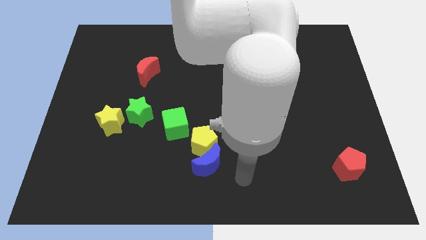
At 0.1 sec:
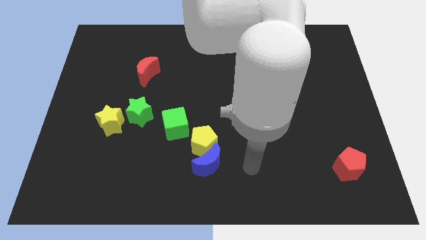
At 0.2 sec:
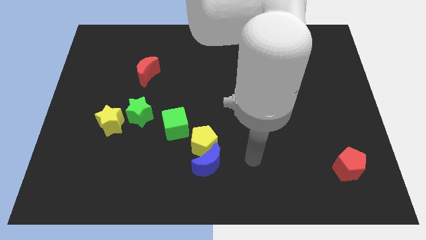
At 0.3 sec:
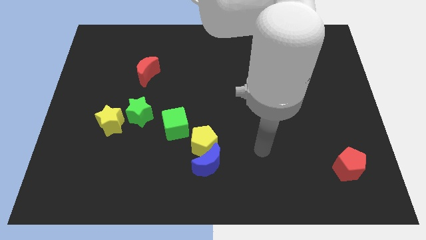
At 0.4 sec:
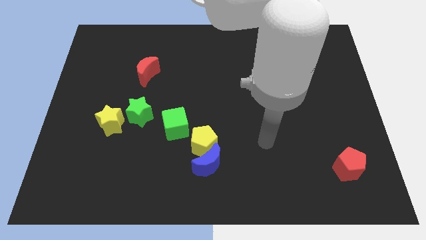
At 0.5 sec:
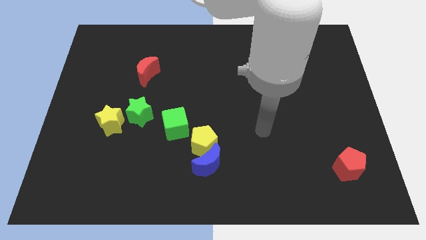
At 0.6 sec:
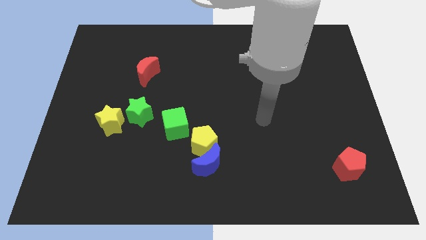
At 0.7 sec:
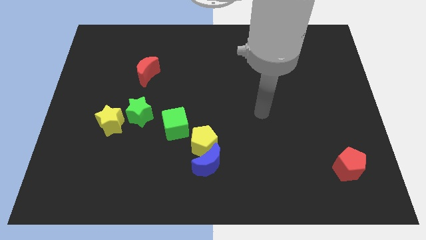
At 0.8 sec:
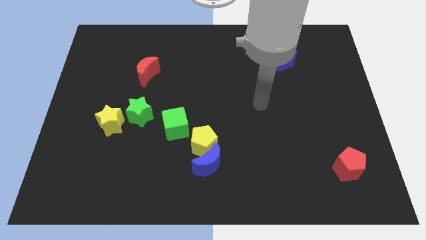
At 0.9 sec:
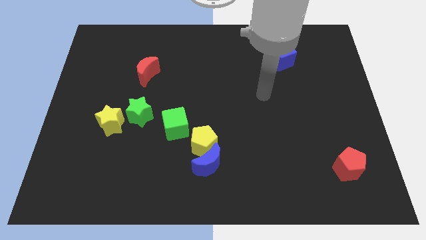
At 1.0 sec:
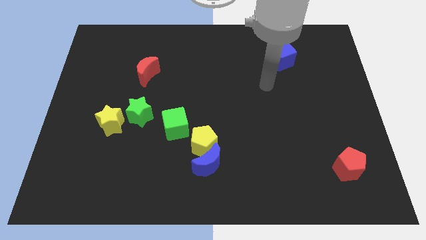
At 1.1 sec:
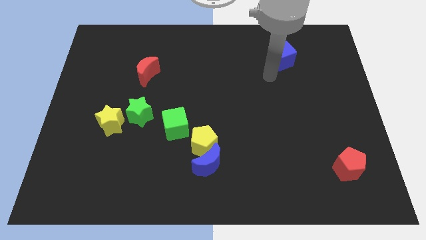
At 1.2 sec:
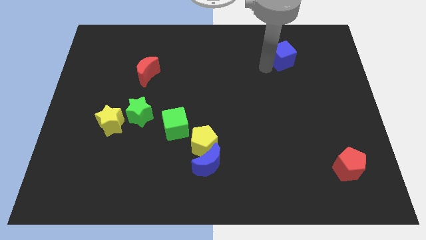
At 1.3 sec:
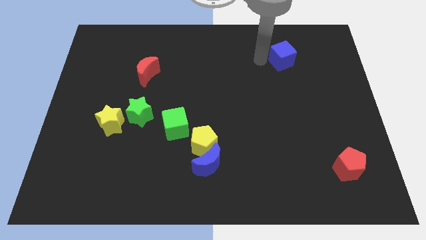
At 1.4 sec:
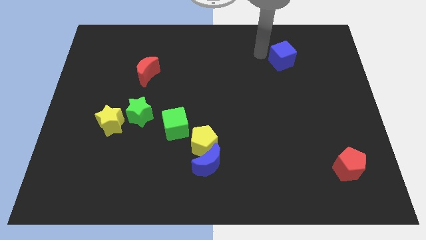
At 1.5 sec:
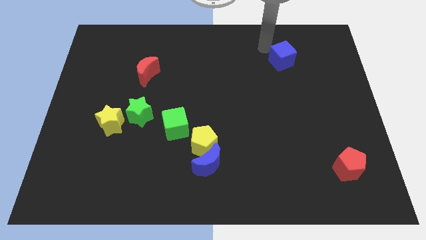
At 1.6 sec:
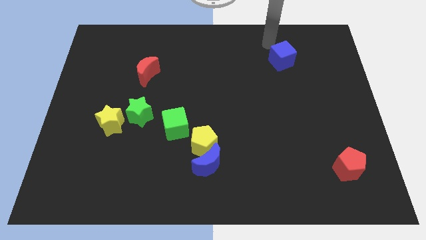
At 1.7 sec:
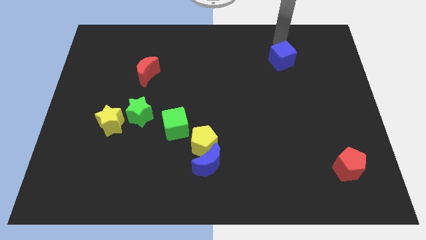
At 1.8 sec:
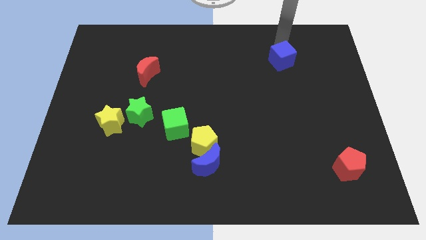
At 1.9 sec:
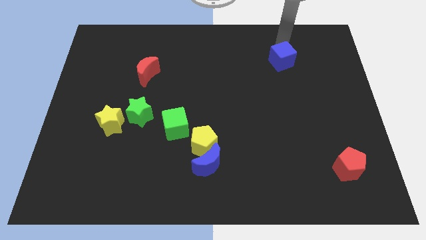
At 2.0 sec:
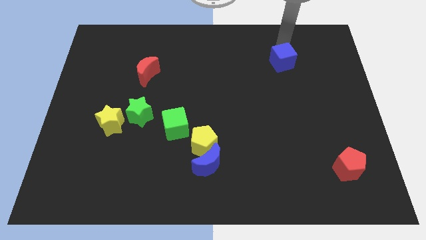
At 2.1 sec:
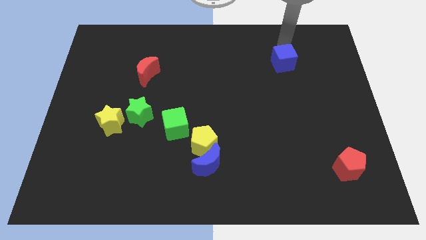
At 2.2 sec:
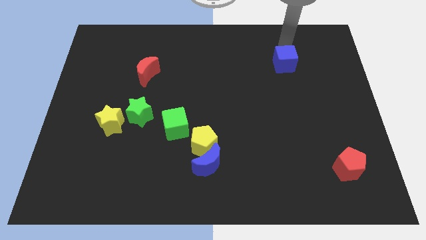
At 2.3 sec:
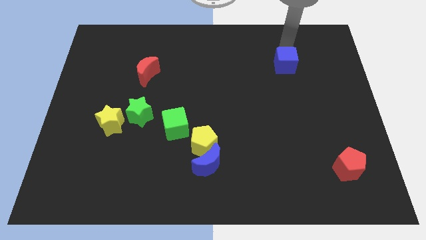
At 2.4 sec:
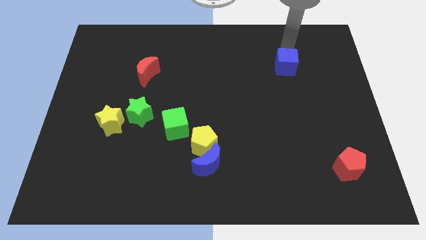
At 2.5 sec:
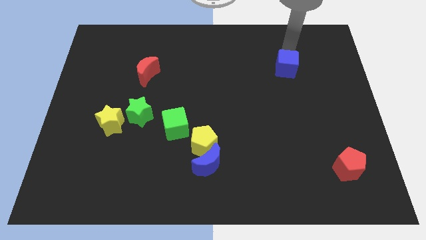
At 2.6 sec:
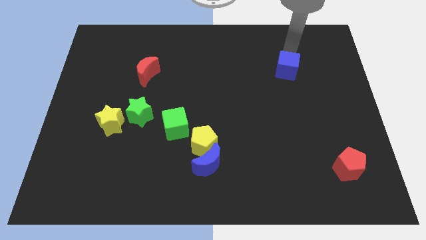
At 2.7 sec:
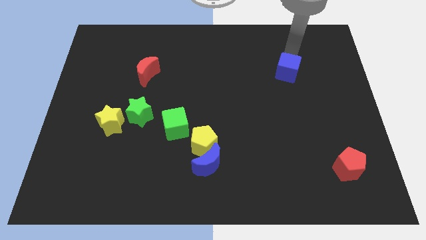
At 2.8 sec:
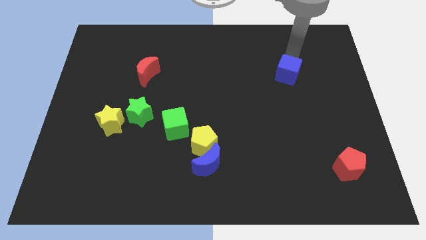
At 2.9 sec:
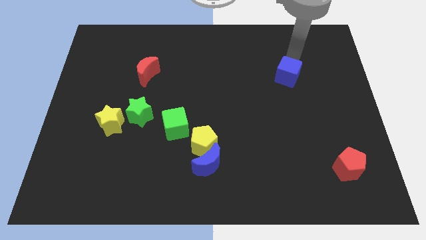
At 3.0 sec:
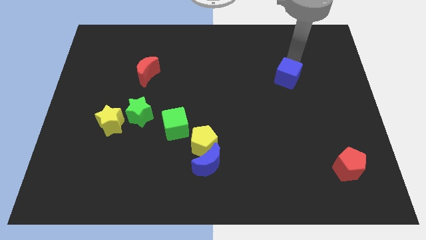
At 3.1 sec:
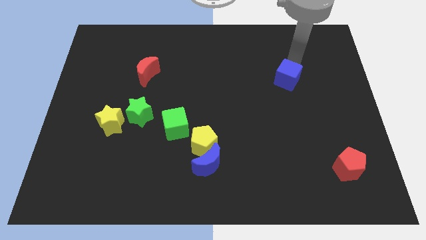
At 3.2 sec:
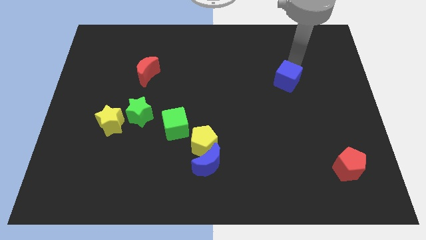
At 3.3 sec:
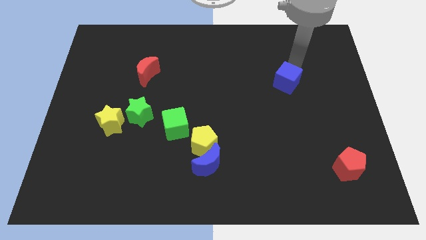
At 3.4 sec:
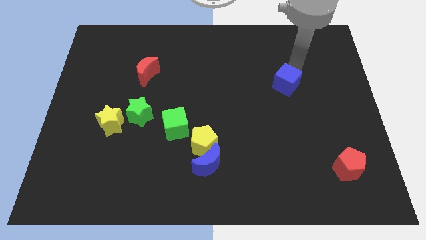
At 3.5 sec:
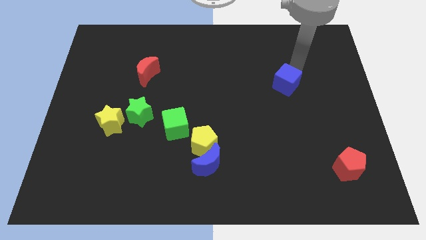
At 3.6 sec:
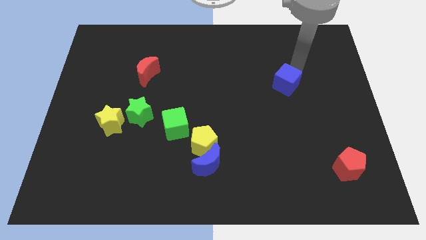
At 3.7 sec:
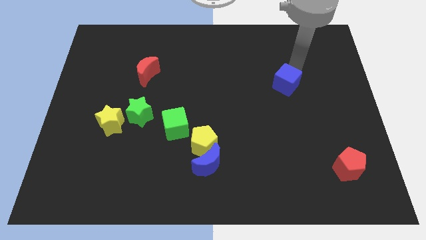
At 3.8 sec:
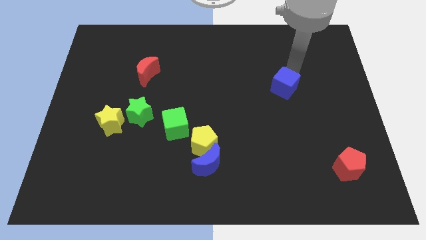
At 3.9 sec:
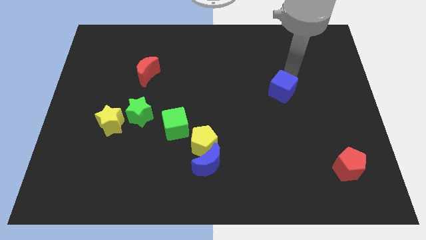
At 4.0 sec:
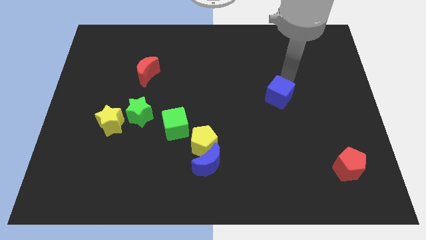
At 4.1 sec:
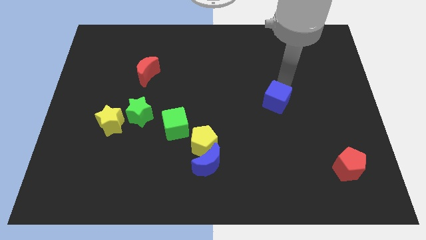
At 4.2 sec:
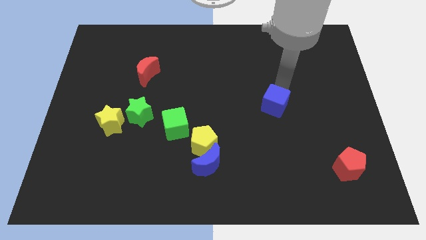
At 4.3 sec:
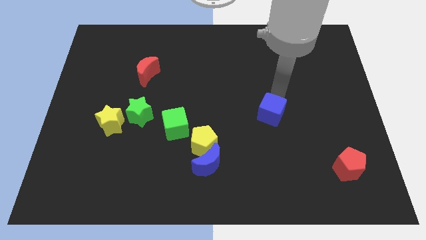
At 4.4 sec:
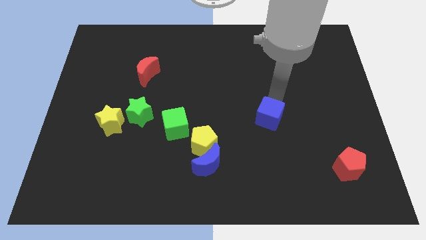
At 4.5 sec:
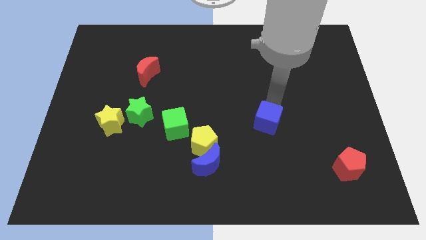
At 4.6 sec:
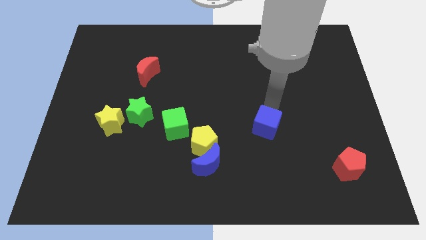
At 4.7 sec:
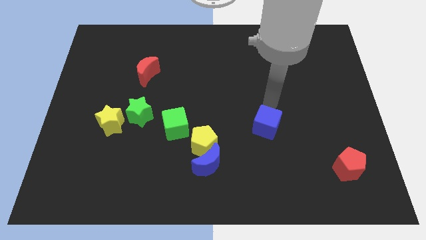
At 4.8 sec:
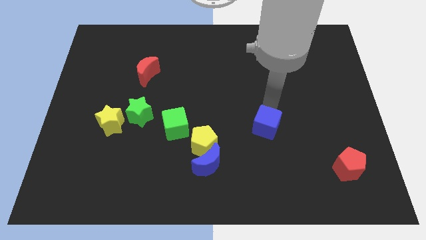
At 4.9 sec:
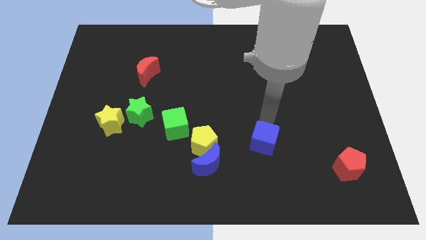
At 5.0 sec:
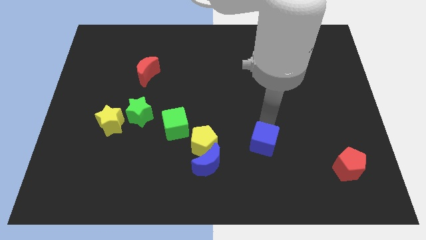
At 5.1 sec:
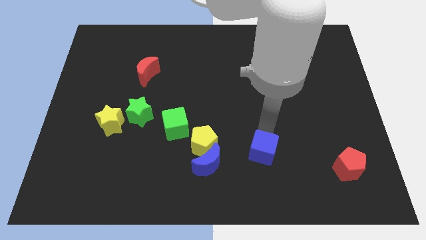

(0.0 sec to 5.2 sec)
push the blue cube to the right of the blue moon

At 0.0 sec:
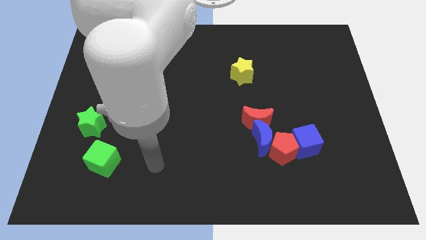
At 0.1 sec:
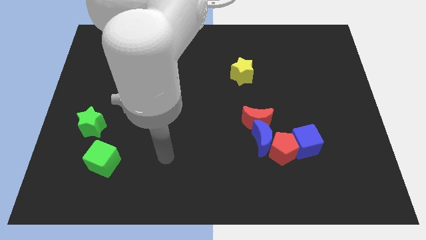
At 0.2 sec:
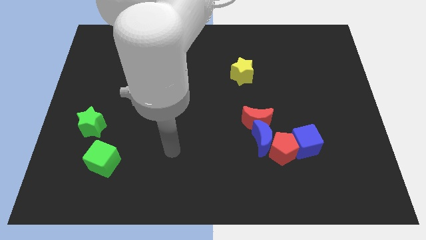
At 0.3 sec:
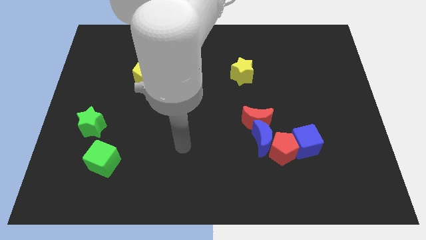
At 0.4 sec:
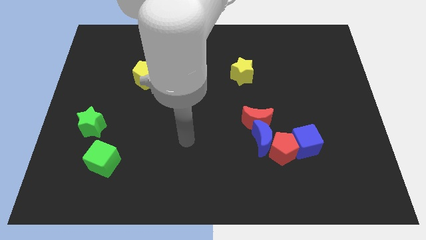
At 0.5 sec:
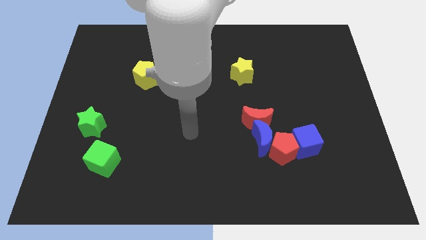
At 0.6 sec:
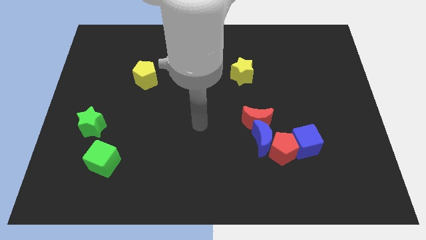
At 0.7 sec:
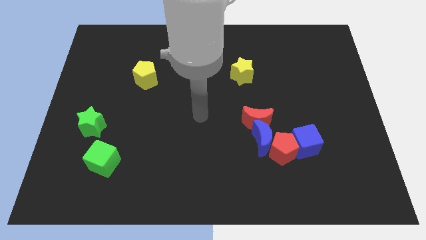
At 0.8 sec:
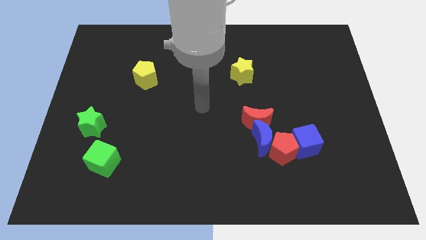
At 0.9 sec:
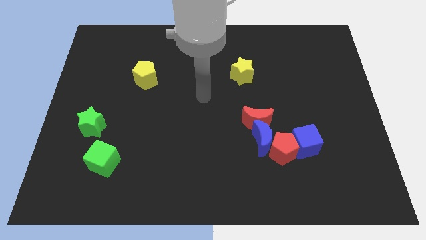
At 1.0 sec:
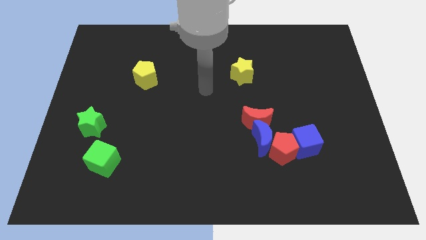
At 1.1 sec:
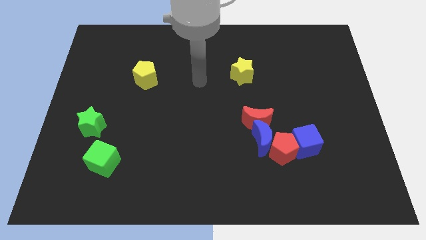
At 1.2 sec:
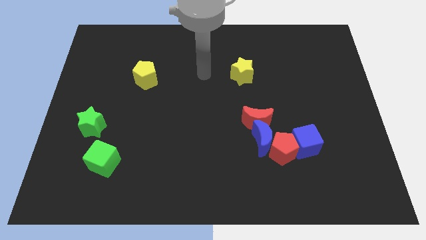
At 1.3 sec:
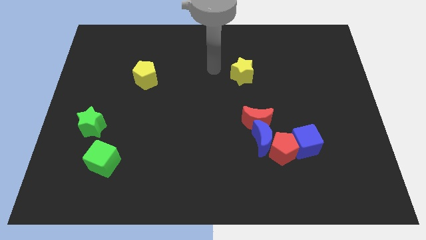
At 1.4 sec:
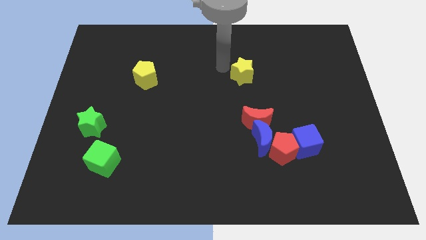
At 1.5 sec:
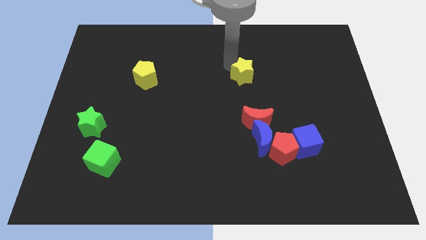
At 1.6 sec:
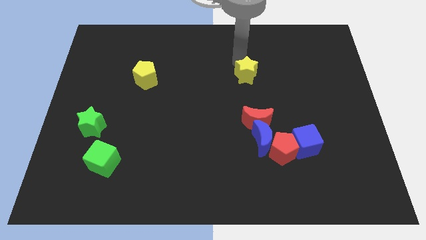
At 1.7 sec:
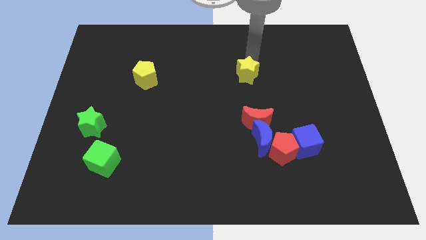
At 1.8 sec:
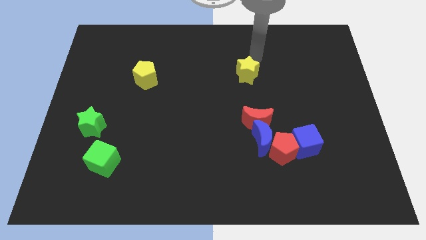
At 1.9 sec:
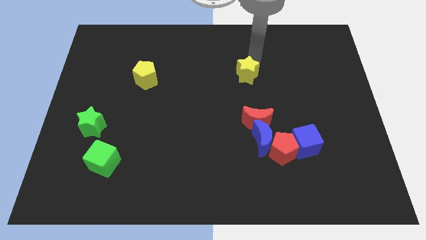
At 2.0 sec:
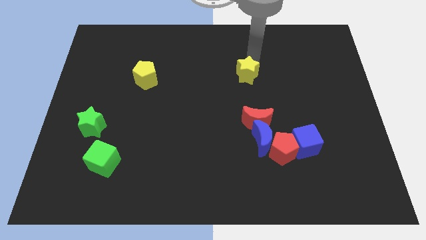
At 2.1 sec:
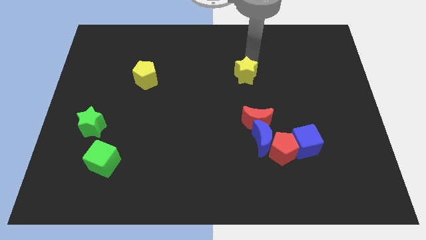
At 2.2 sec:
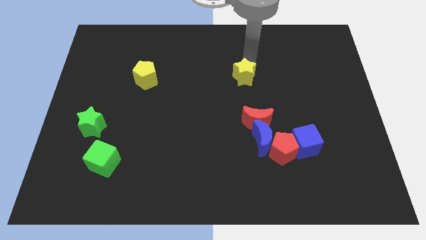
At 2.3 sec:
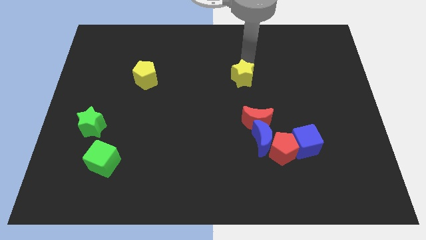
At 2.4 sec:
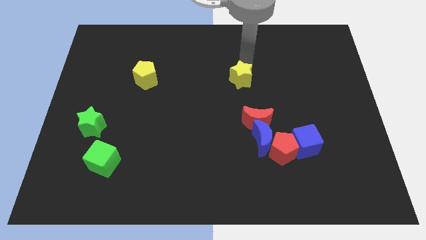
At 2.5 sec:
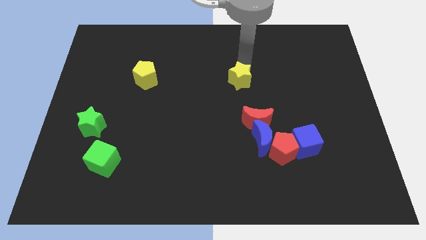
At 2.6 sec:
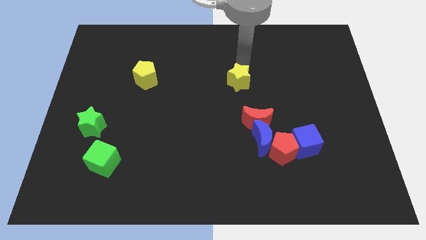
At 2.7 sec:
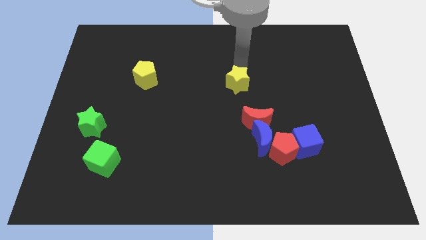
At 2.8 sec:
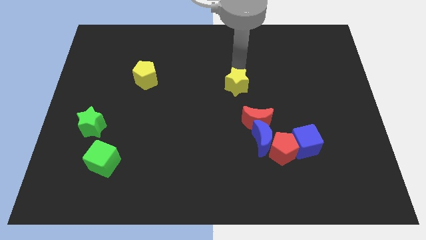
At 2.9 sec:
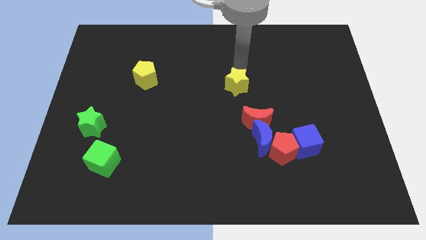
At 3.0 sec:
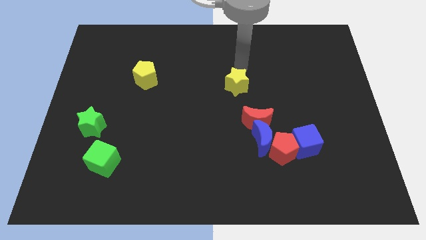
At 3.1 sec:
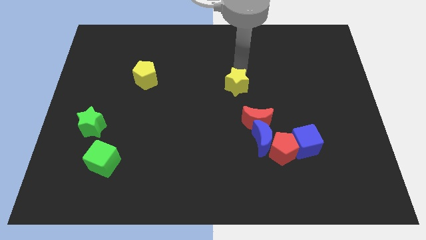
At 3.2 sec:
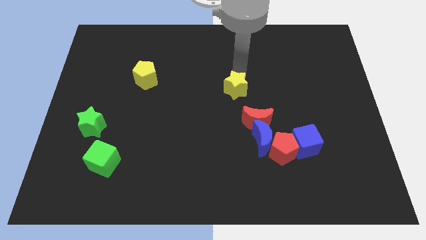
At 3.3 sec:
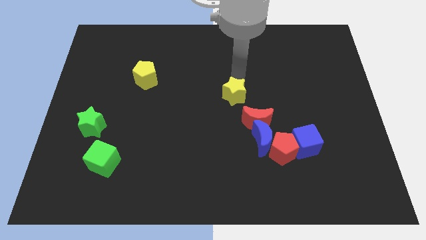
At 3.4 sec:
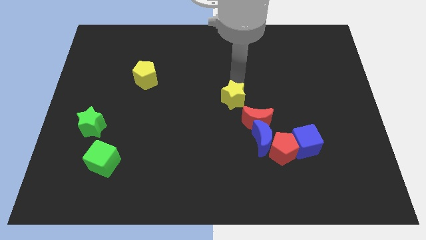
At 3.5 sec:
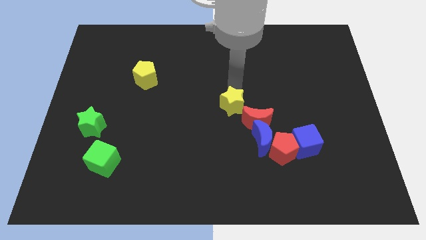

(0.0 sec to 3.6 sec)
move the yellow star diagonally up and to the left of the blue moon
